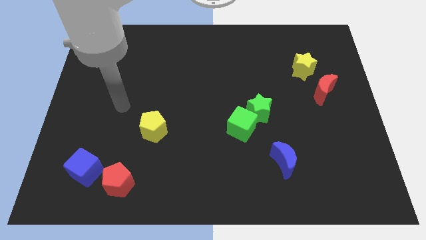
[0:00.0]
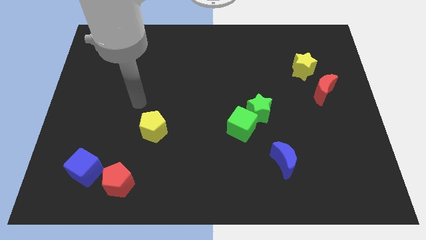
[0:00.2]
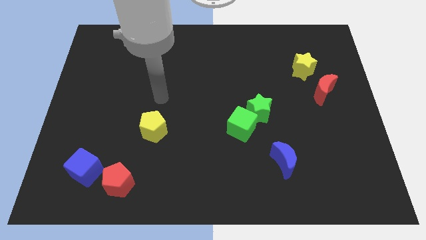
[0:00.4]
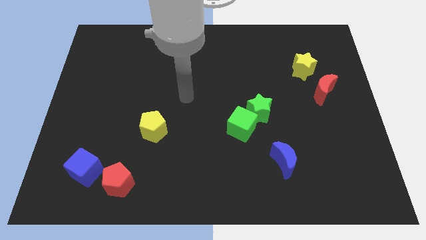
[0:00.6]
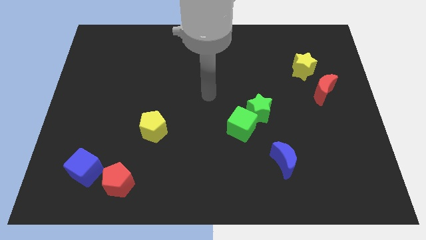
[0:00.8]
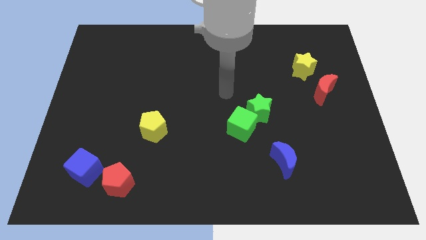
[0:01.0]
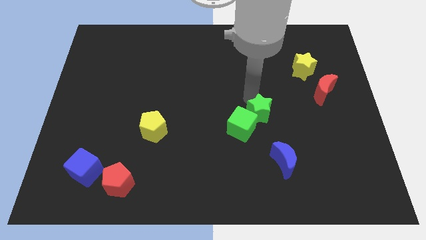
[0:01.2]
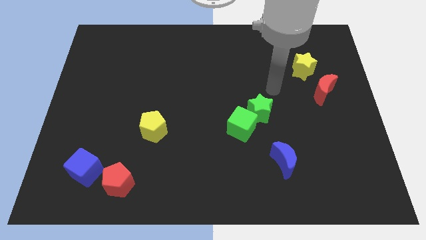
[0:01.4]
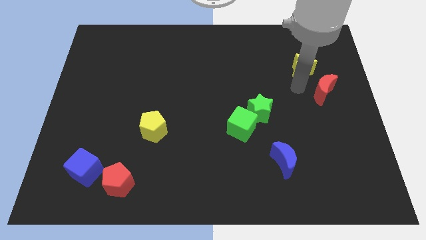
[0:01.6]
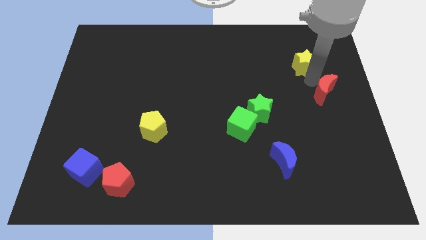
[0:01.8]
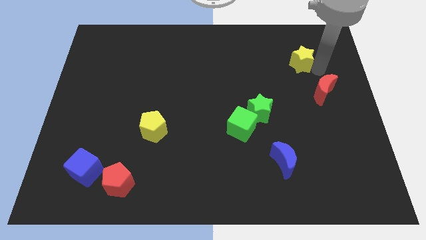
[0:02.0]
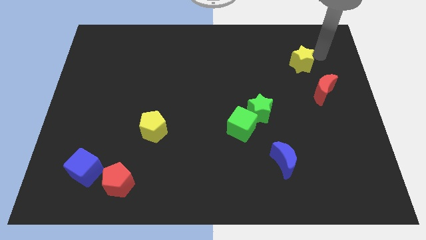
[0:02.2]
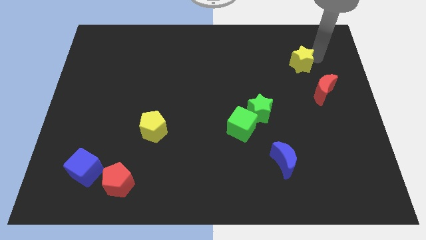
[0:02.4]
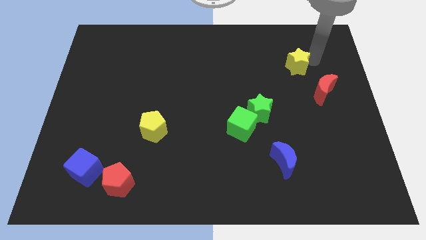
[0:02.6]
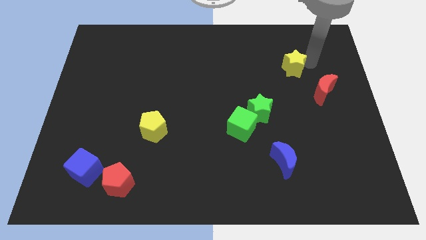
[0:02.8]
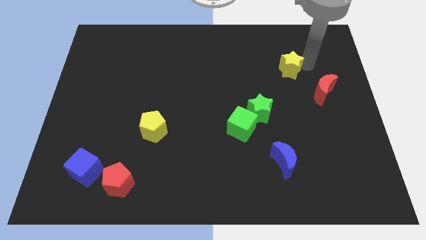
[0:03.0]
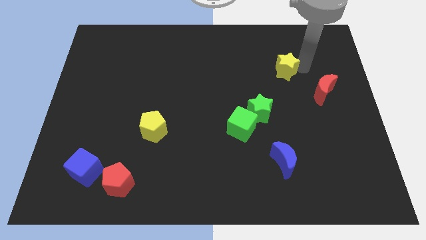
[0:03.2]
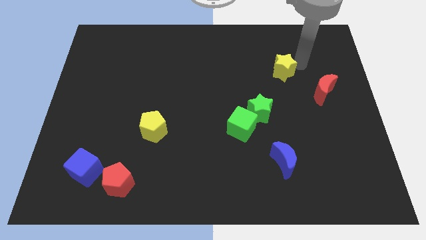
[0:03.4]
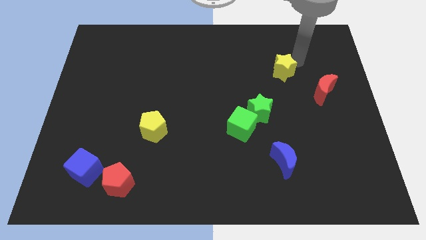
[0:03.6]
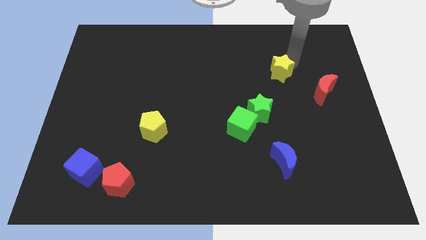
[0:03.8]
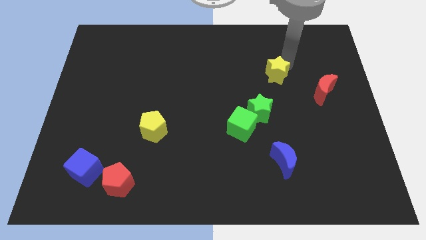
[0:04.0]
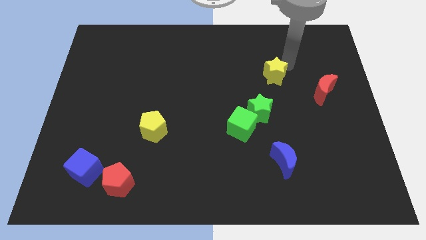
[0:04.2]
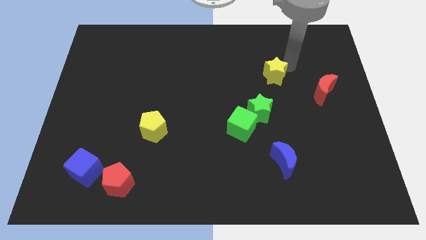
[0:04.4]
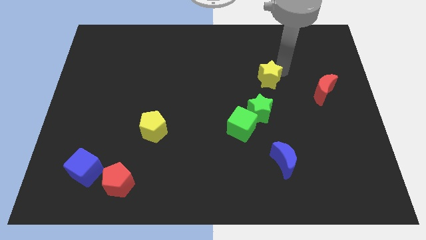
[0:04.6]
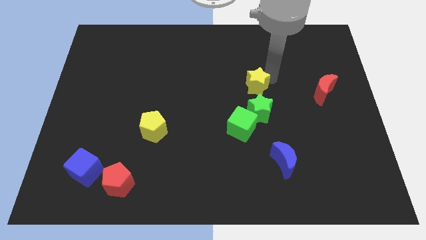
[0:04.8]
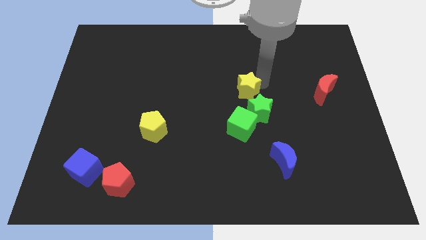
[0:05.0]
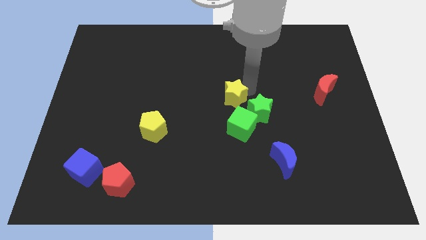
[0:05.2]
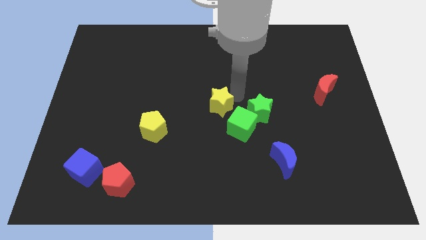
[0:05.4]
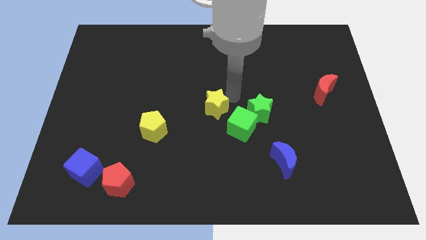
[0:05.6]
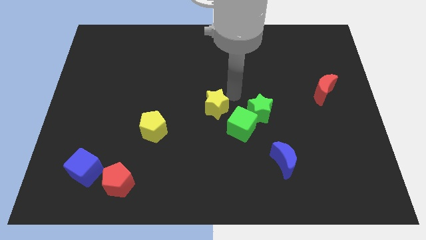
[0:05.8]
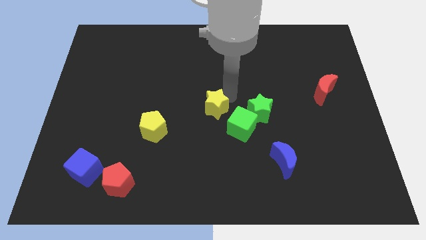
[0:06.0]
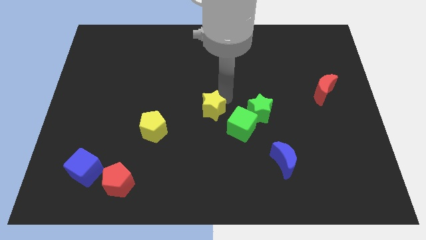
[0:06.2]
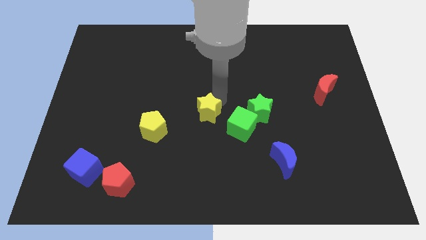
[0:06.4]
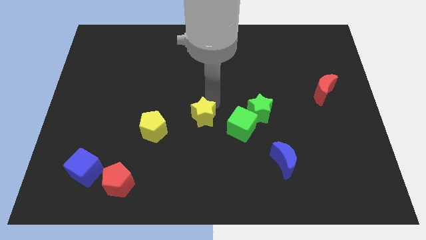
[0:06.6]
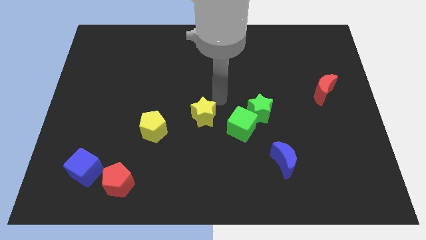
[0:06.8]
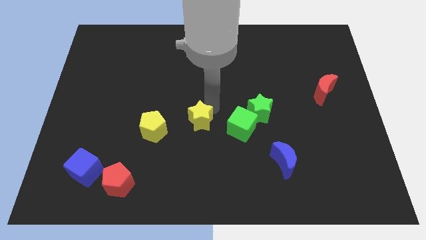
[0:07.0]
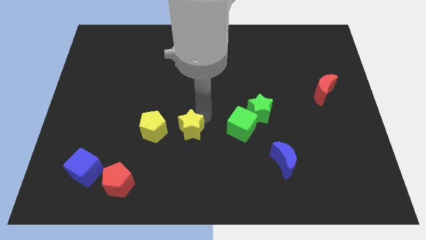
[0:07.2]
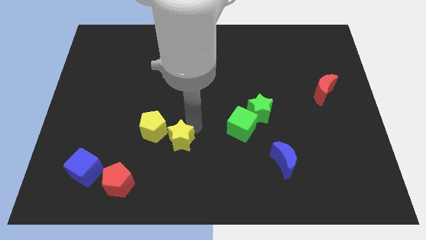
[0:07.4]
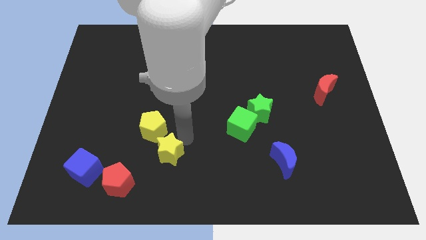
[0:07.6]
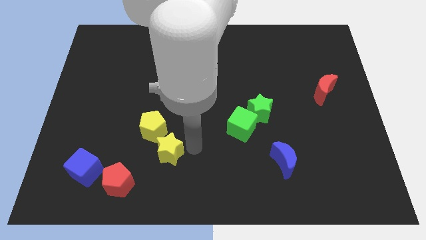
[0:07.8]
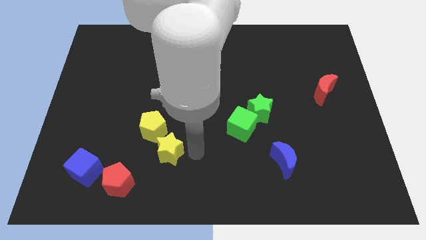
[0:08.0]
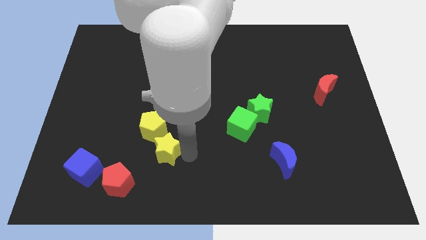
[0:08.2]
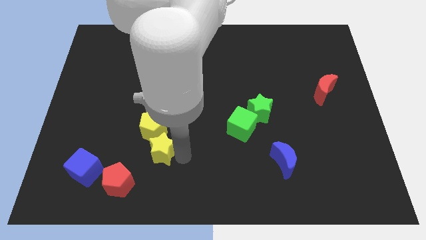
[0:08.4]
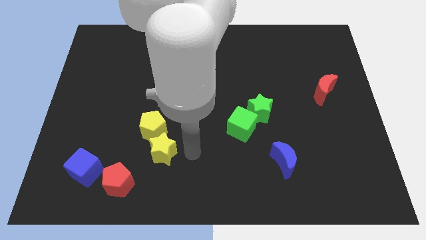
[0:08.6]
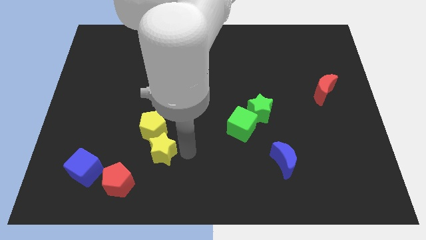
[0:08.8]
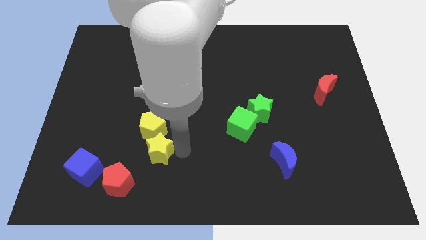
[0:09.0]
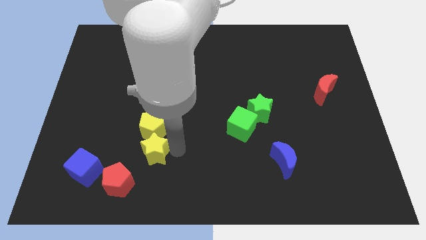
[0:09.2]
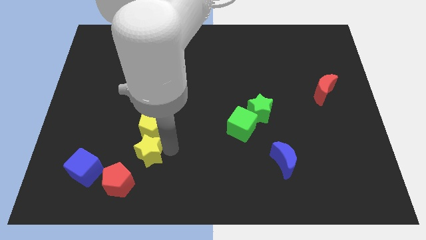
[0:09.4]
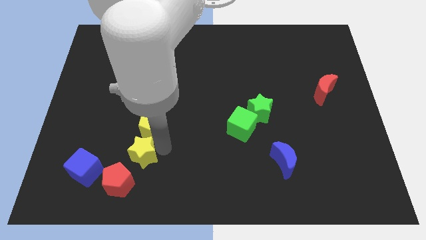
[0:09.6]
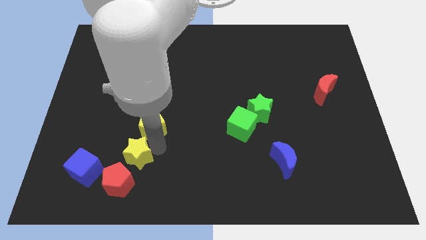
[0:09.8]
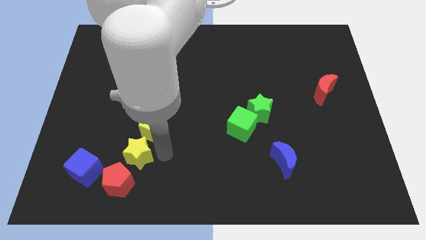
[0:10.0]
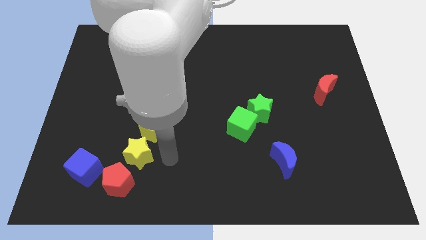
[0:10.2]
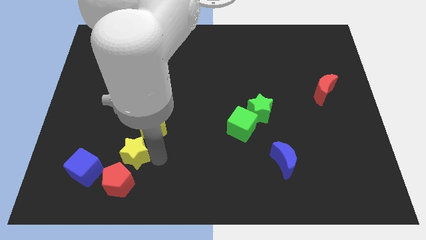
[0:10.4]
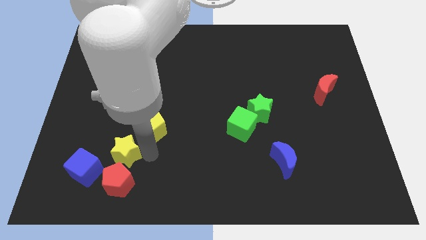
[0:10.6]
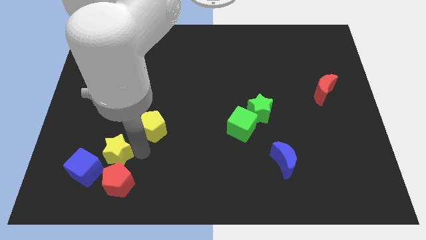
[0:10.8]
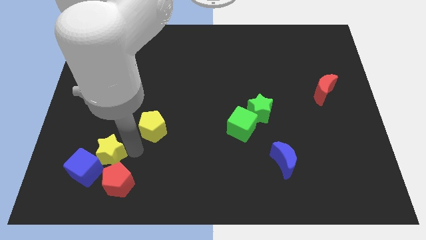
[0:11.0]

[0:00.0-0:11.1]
put the yellow star close to the blue cube
